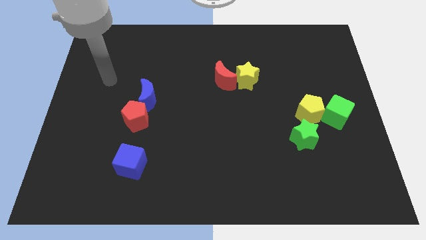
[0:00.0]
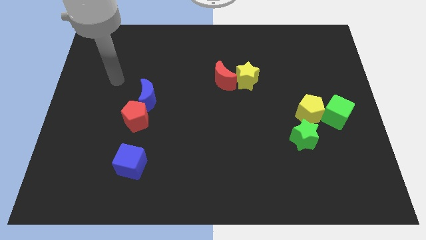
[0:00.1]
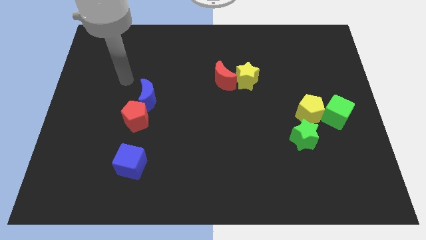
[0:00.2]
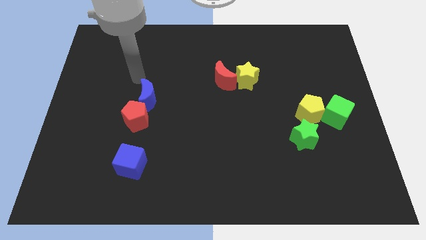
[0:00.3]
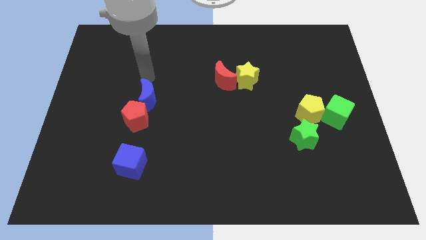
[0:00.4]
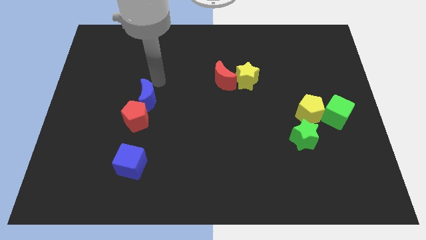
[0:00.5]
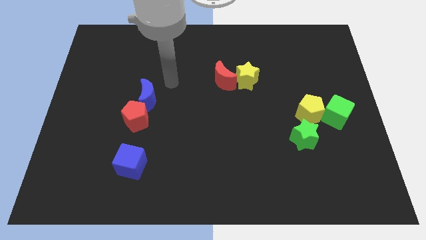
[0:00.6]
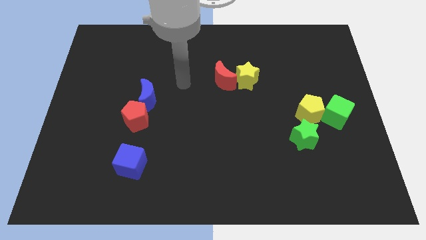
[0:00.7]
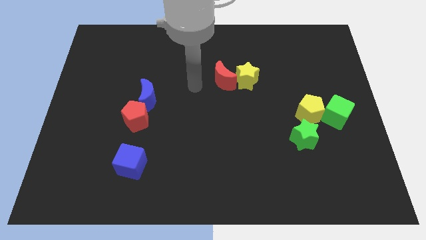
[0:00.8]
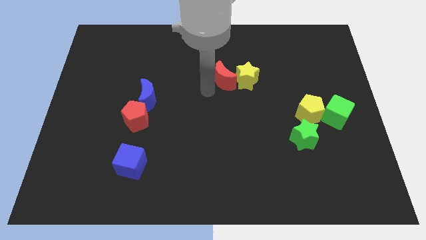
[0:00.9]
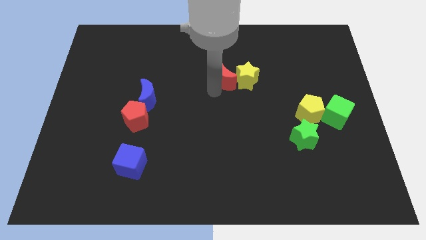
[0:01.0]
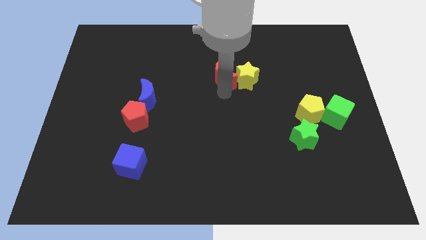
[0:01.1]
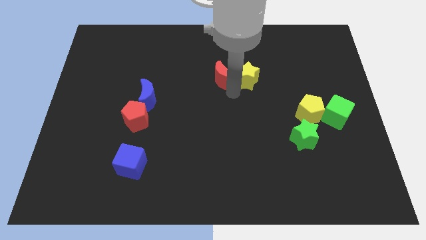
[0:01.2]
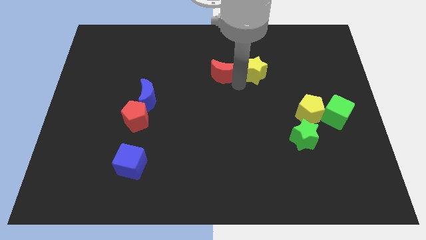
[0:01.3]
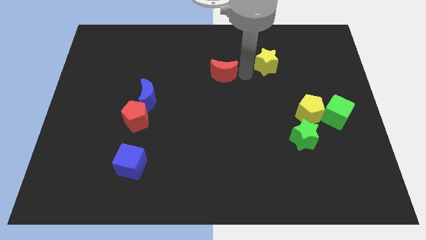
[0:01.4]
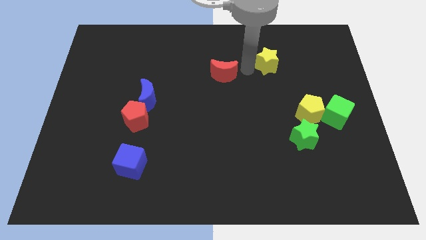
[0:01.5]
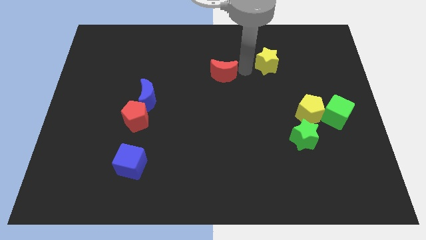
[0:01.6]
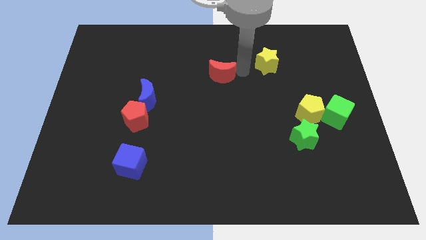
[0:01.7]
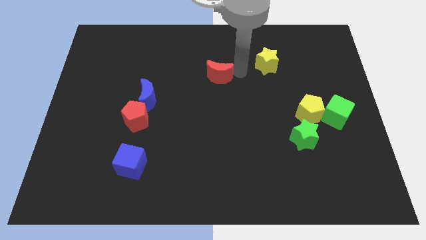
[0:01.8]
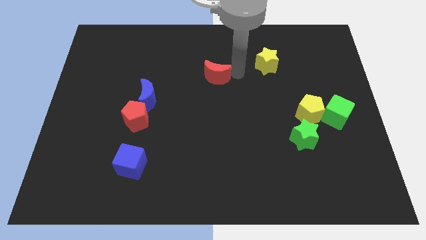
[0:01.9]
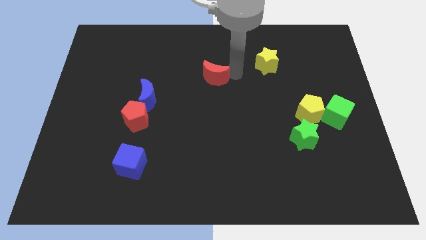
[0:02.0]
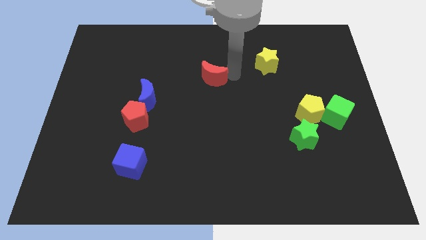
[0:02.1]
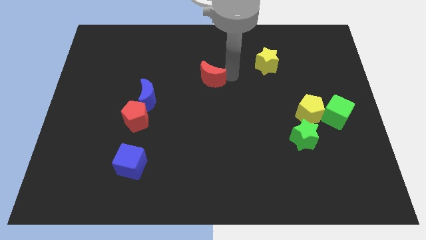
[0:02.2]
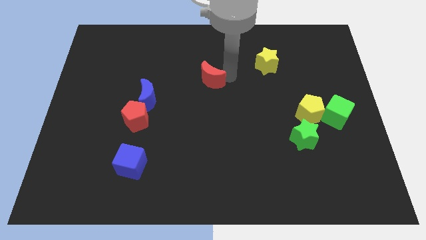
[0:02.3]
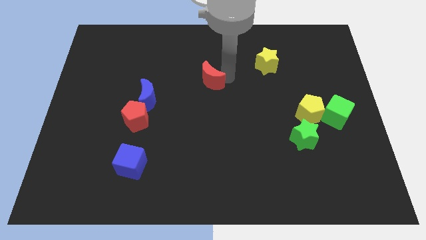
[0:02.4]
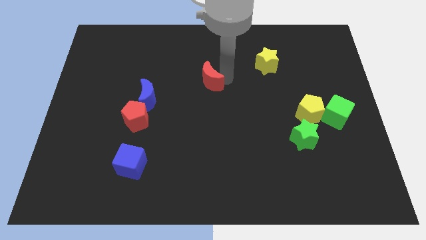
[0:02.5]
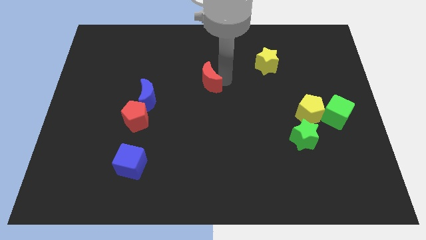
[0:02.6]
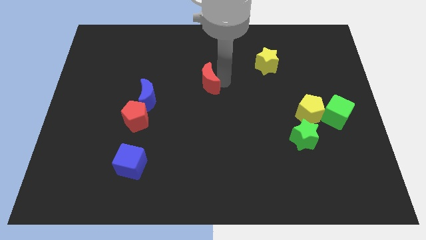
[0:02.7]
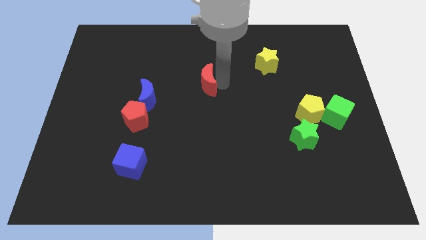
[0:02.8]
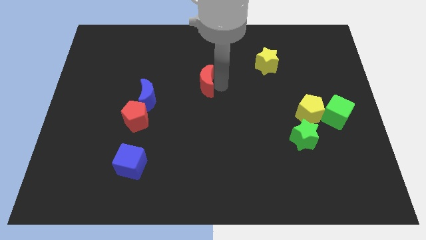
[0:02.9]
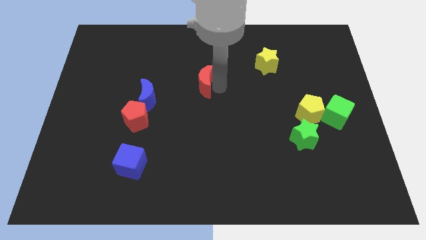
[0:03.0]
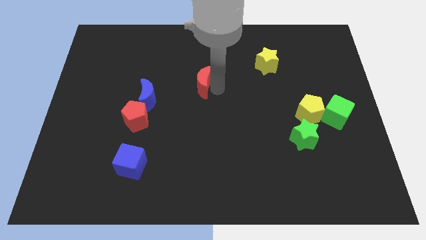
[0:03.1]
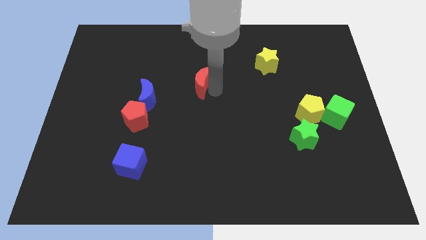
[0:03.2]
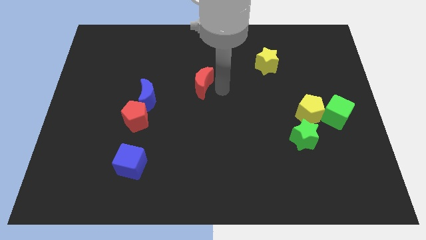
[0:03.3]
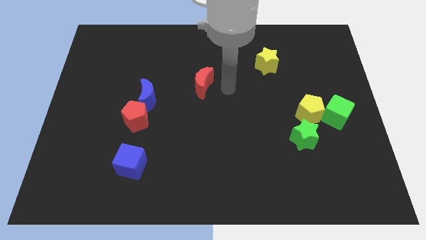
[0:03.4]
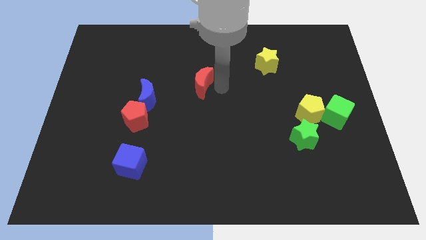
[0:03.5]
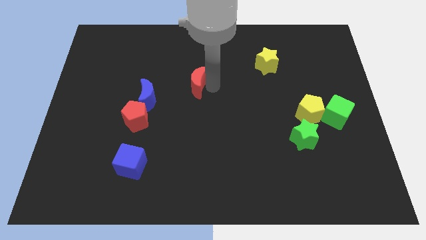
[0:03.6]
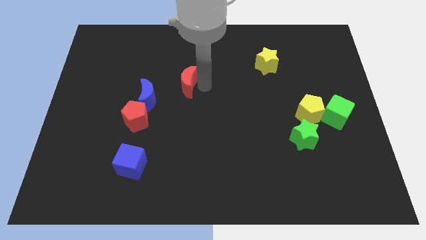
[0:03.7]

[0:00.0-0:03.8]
slightly push the red moon left

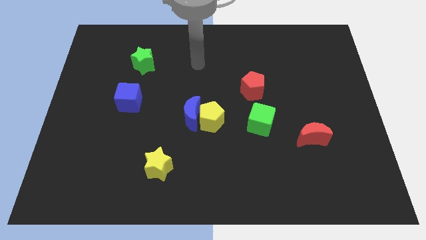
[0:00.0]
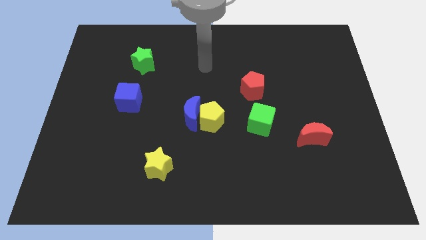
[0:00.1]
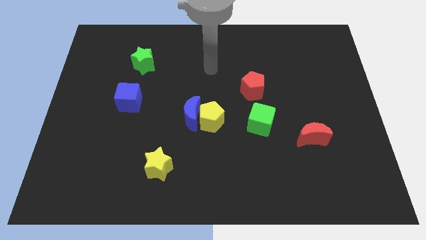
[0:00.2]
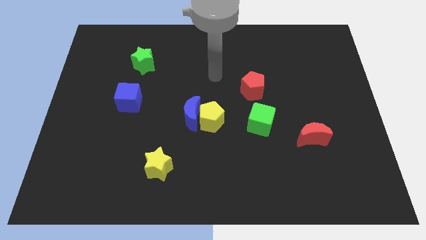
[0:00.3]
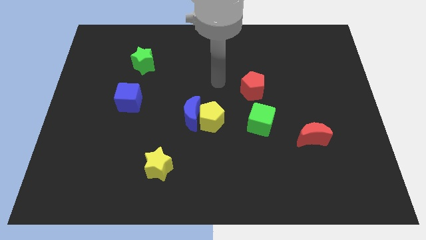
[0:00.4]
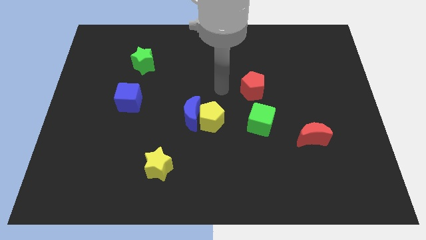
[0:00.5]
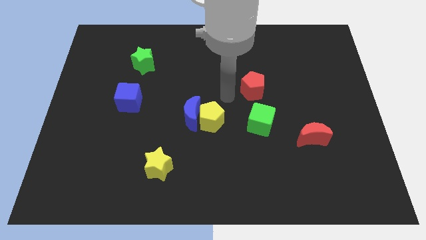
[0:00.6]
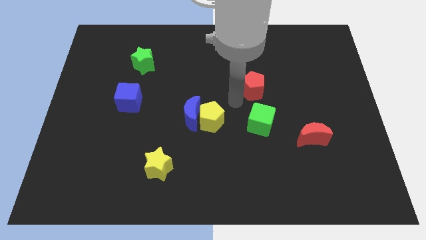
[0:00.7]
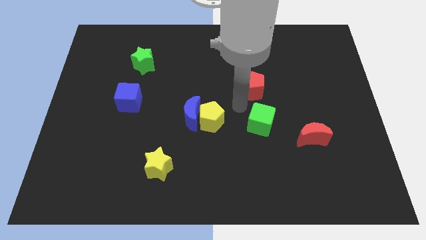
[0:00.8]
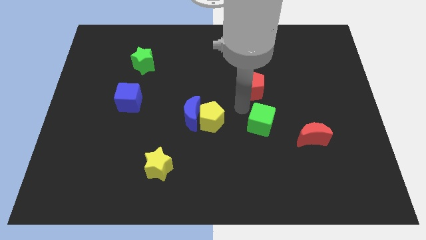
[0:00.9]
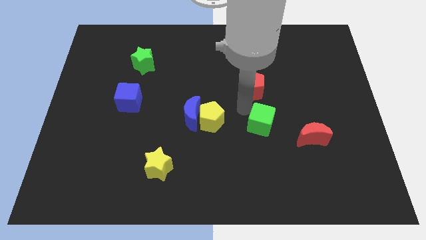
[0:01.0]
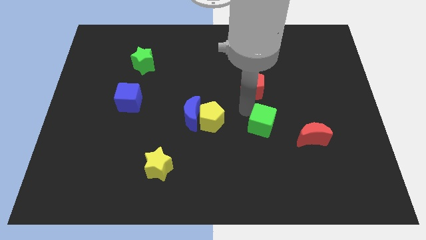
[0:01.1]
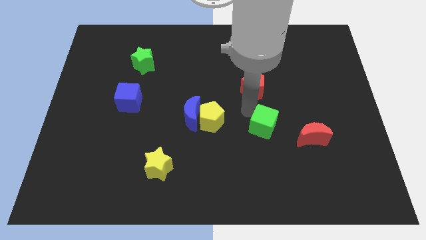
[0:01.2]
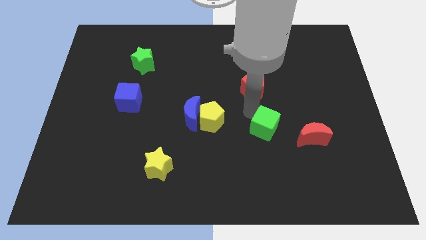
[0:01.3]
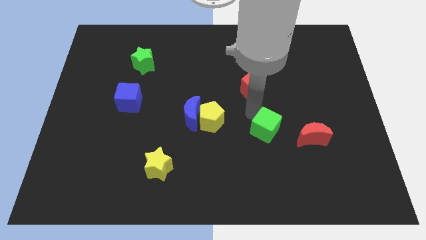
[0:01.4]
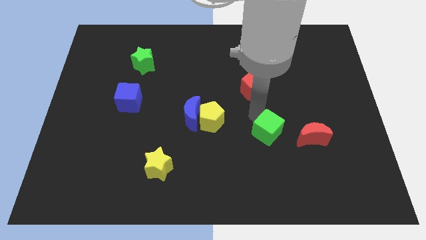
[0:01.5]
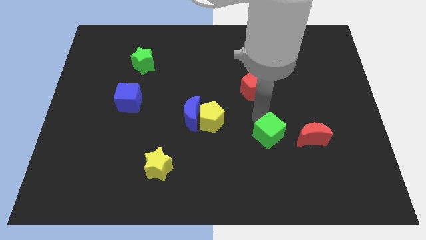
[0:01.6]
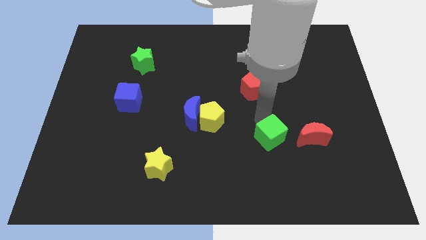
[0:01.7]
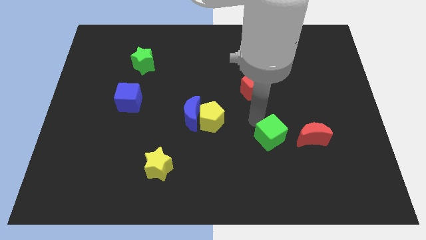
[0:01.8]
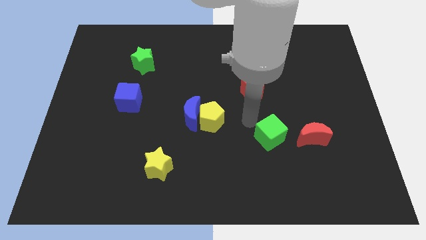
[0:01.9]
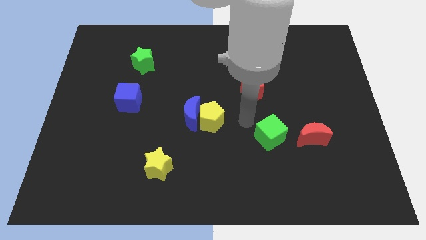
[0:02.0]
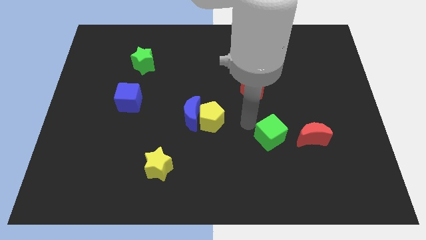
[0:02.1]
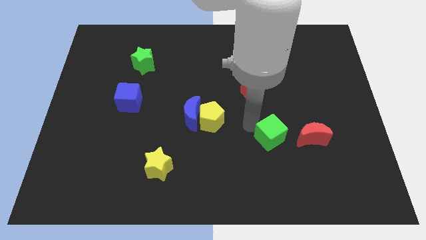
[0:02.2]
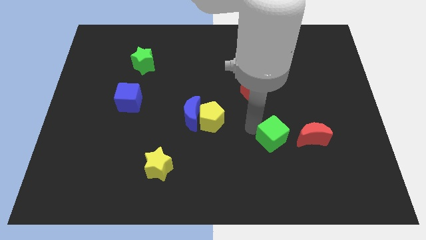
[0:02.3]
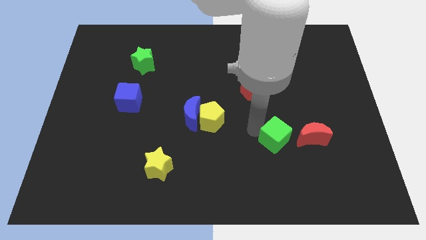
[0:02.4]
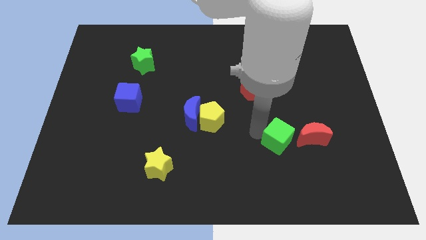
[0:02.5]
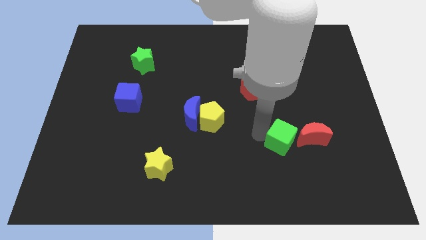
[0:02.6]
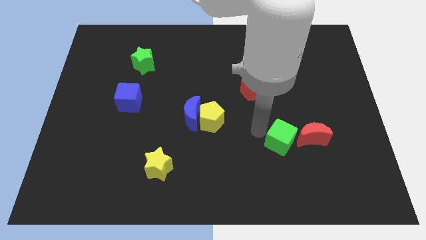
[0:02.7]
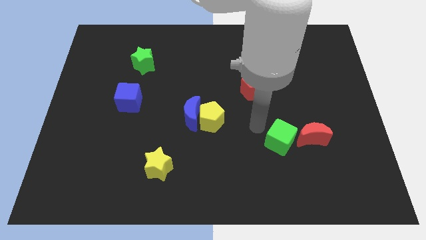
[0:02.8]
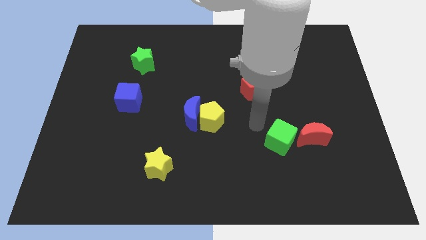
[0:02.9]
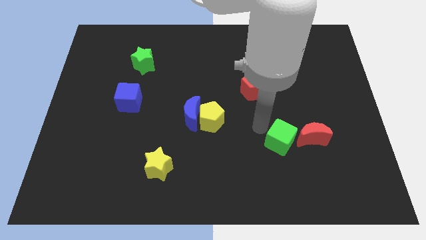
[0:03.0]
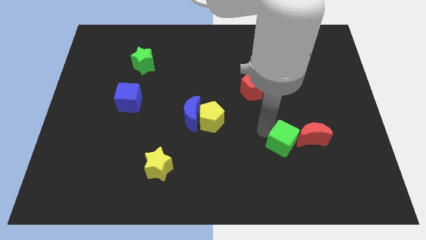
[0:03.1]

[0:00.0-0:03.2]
slide the green cube a little downwards and then to the right

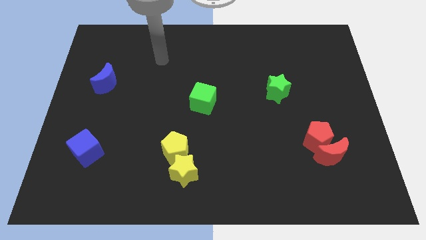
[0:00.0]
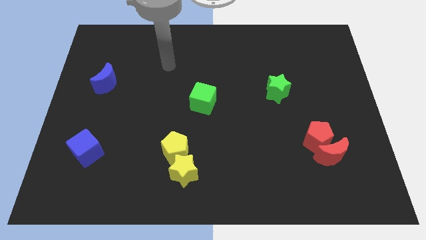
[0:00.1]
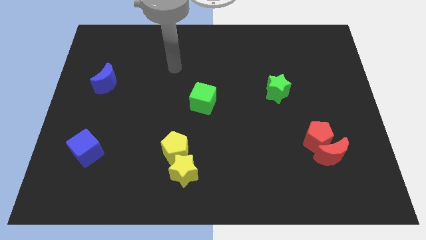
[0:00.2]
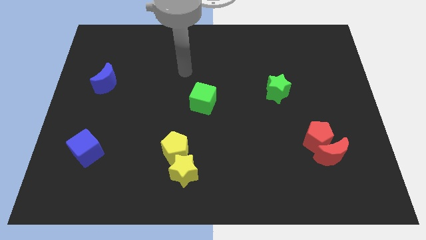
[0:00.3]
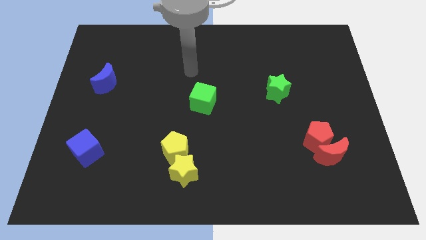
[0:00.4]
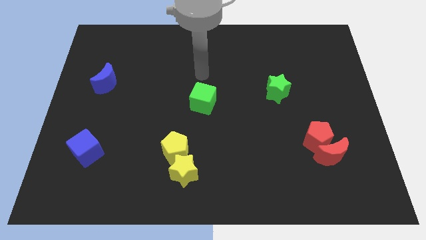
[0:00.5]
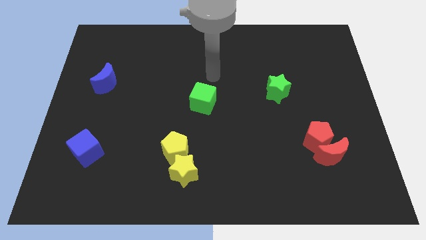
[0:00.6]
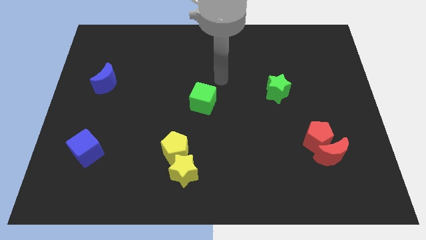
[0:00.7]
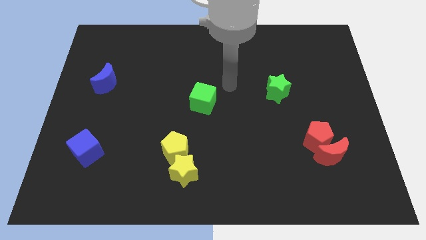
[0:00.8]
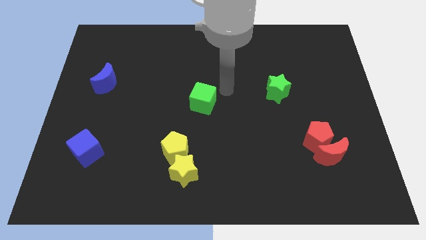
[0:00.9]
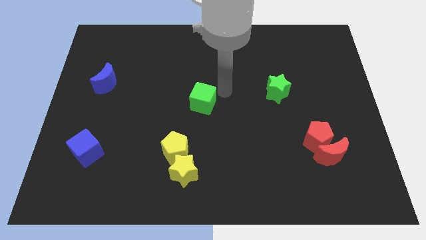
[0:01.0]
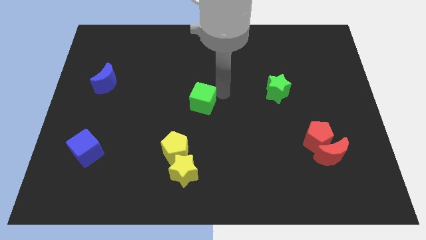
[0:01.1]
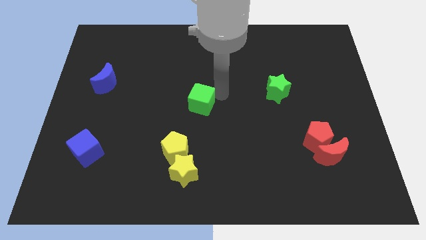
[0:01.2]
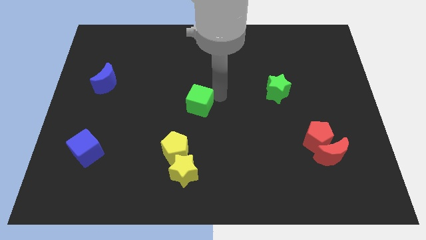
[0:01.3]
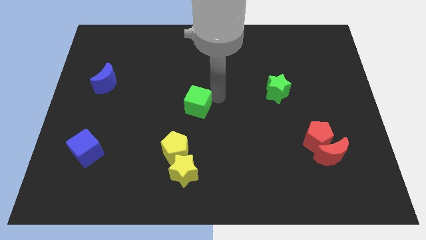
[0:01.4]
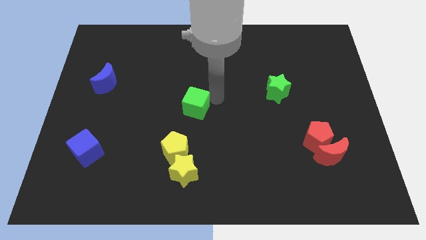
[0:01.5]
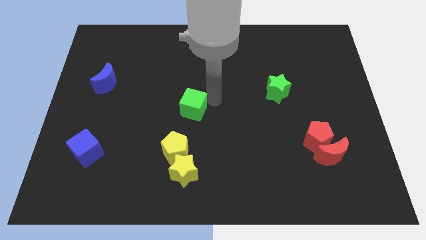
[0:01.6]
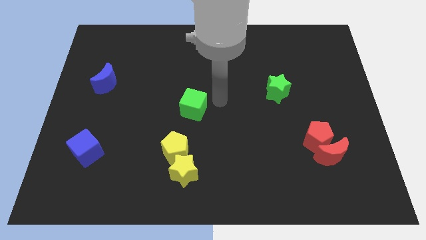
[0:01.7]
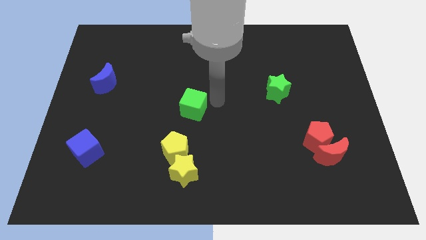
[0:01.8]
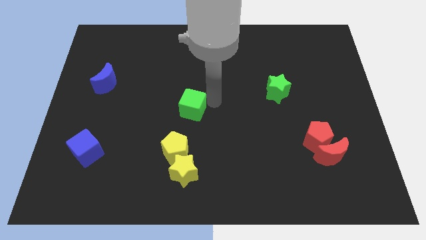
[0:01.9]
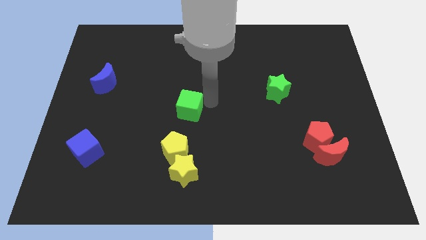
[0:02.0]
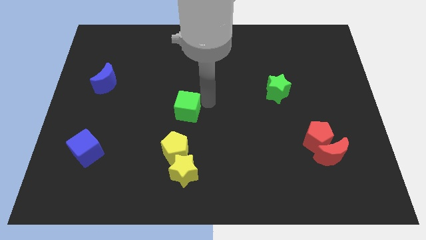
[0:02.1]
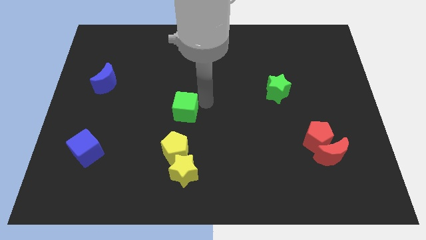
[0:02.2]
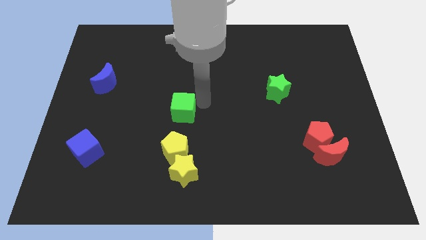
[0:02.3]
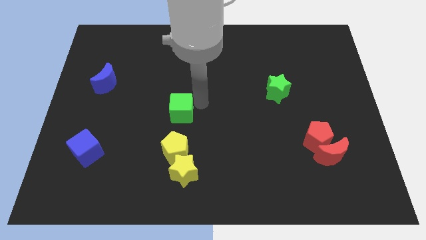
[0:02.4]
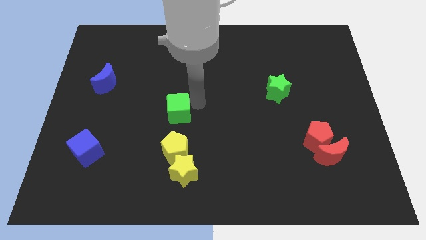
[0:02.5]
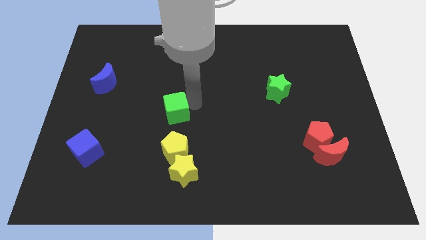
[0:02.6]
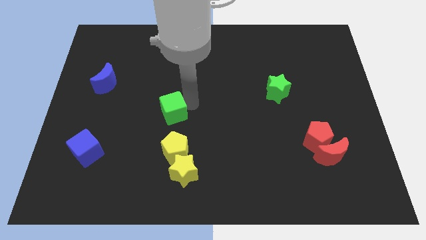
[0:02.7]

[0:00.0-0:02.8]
move the green cube a bit down and left
